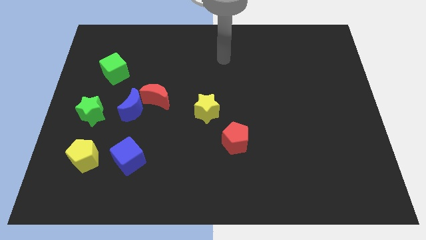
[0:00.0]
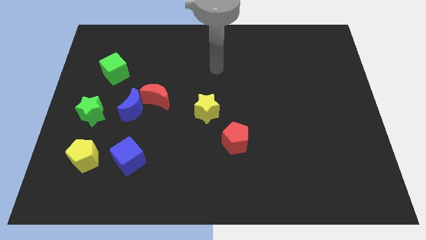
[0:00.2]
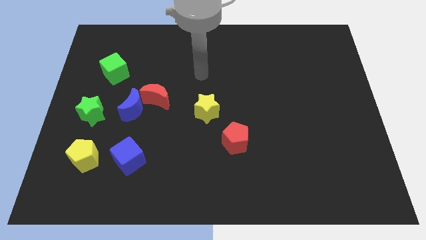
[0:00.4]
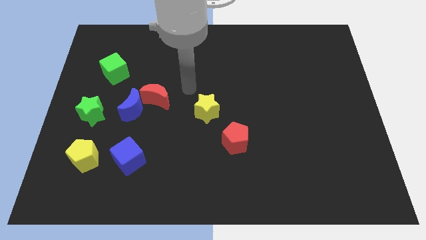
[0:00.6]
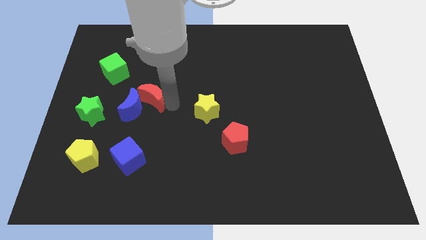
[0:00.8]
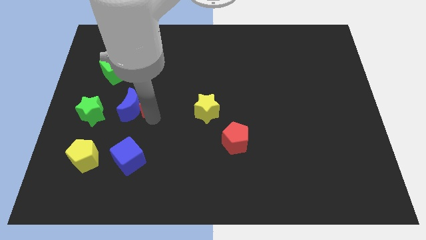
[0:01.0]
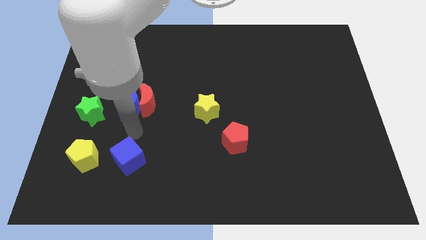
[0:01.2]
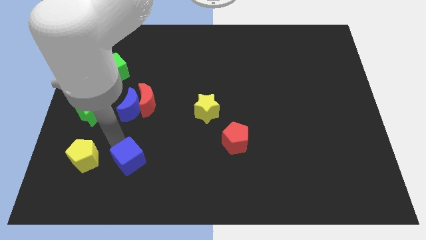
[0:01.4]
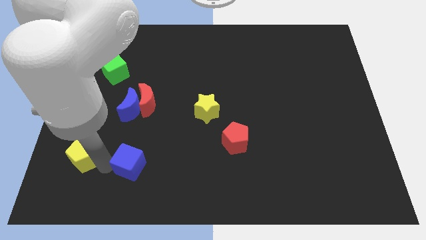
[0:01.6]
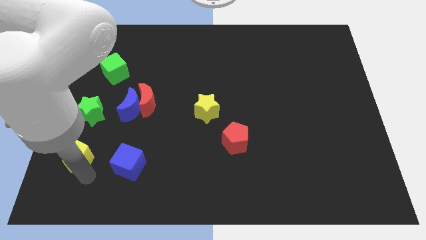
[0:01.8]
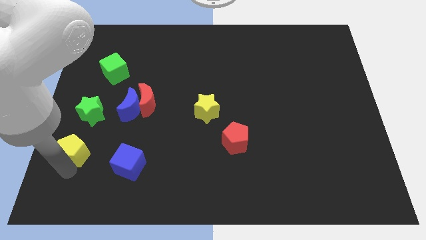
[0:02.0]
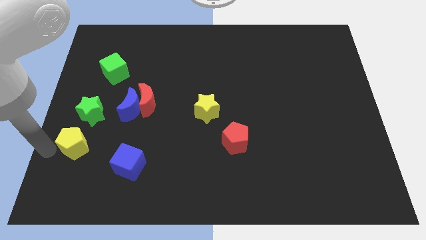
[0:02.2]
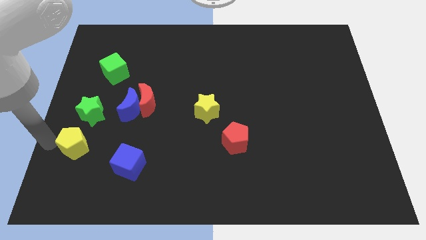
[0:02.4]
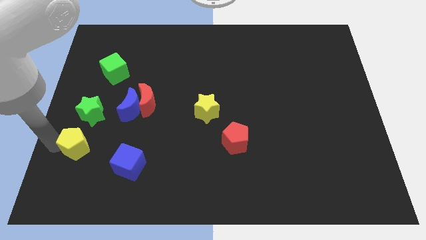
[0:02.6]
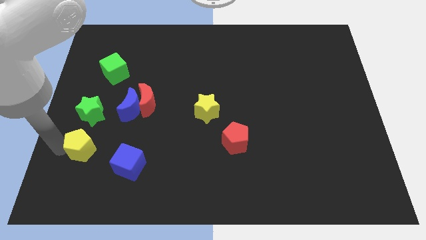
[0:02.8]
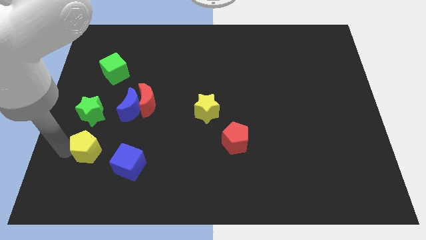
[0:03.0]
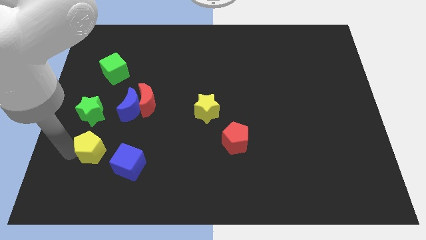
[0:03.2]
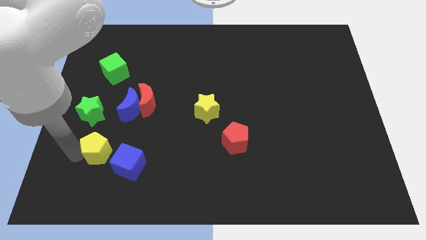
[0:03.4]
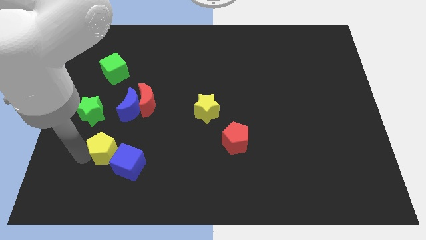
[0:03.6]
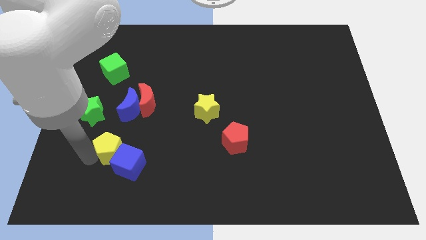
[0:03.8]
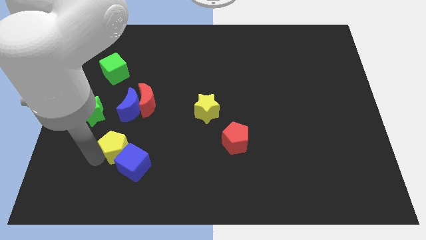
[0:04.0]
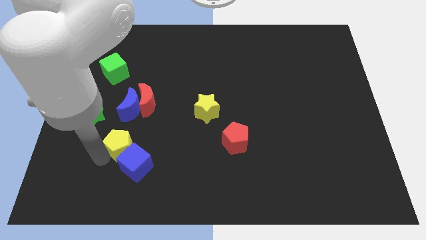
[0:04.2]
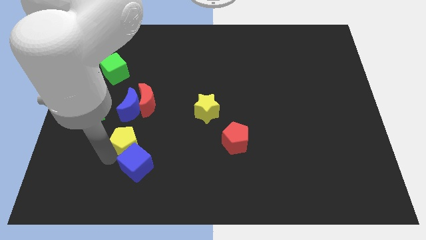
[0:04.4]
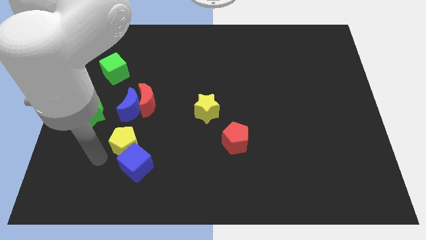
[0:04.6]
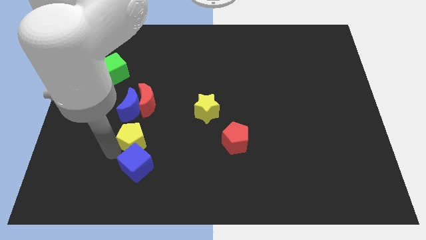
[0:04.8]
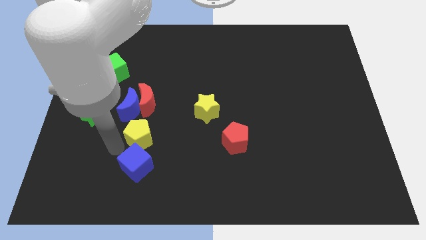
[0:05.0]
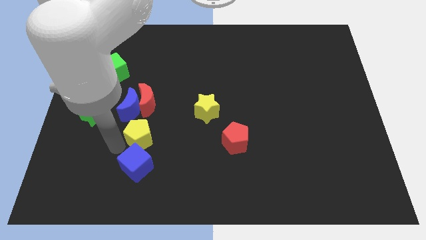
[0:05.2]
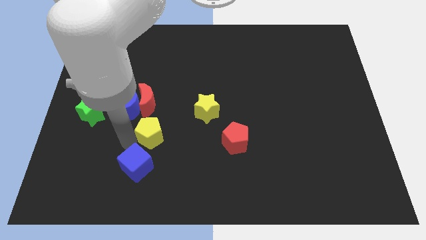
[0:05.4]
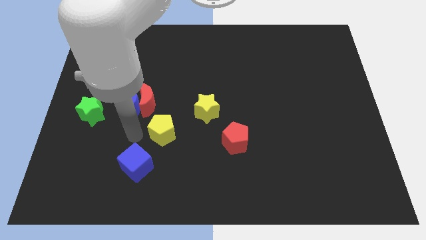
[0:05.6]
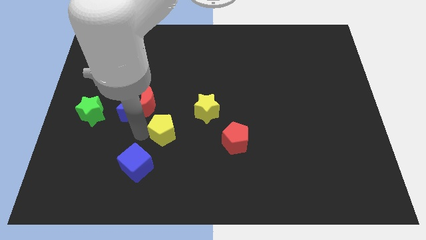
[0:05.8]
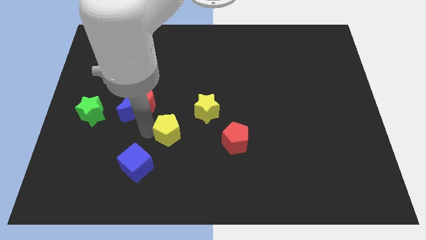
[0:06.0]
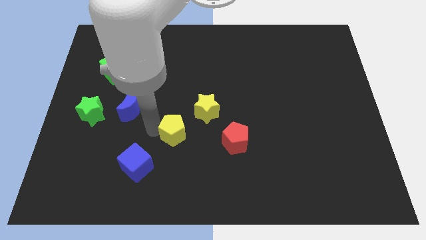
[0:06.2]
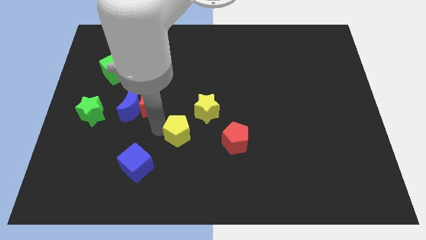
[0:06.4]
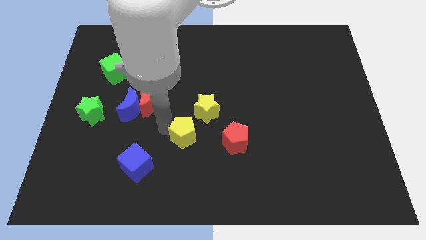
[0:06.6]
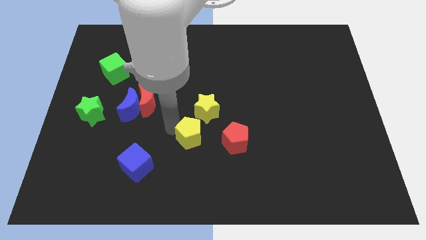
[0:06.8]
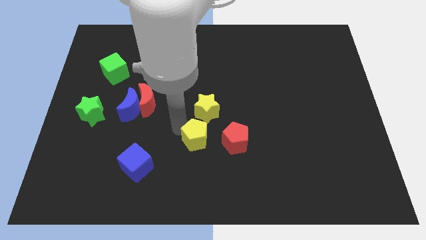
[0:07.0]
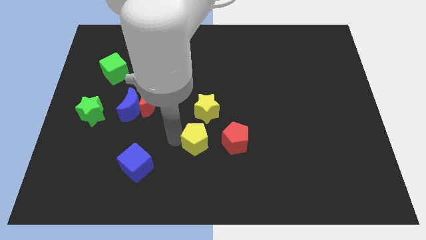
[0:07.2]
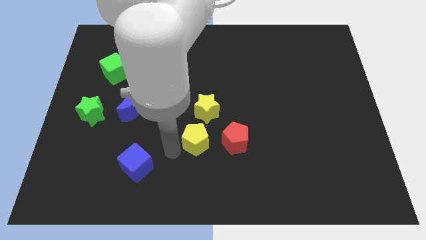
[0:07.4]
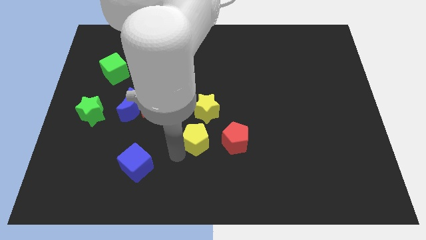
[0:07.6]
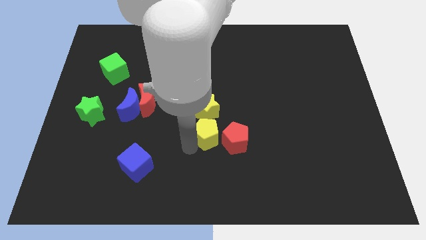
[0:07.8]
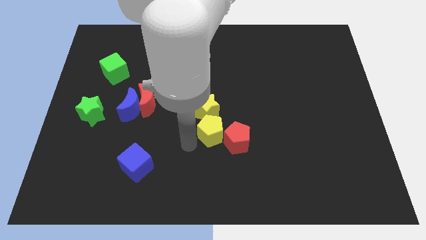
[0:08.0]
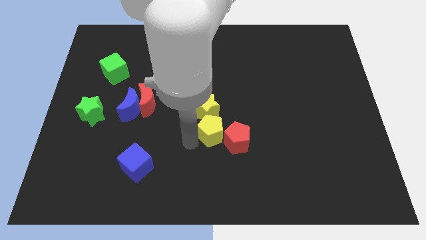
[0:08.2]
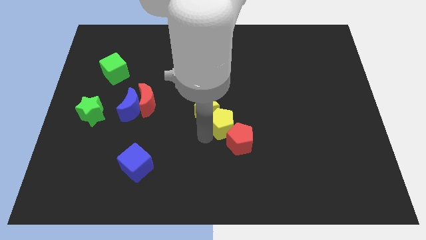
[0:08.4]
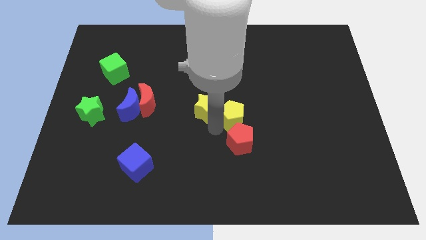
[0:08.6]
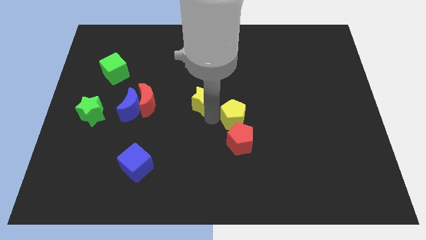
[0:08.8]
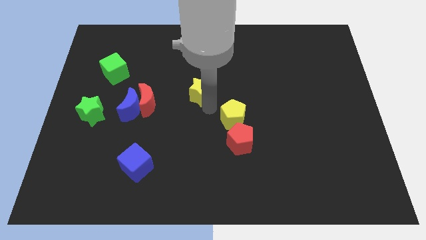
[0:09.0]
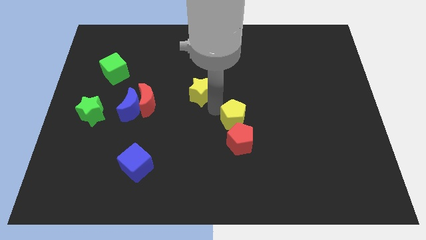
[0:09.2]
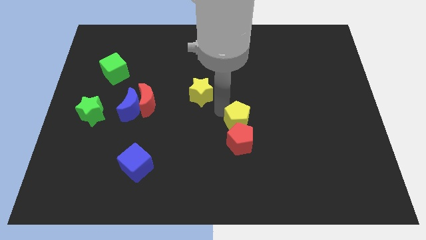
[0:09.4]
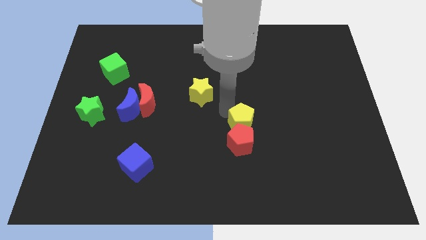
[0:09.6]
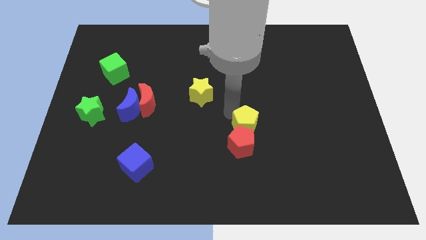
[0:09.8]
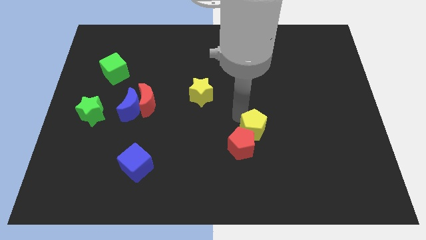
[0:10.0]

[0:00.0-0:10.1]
slide the yellow pentagon right of the red pentagon

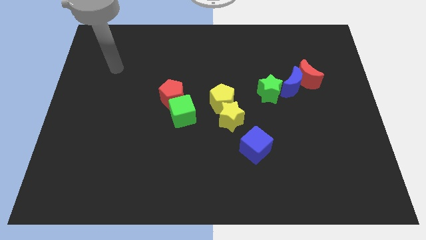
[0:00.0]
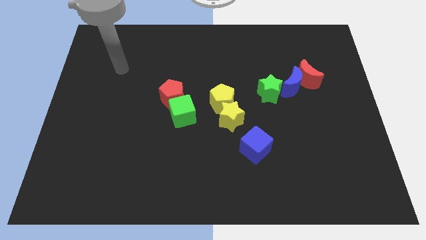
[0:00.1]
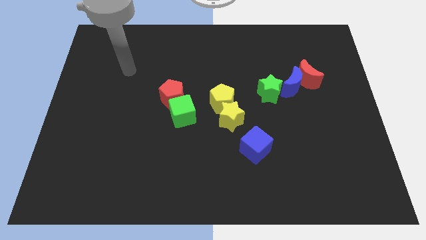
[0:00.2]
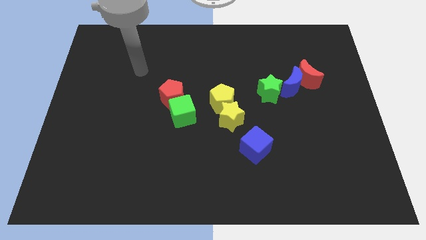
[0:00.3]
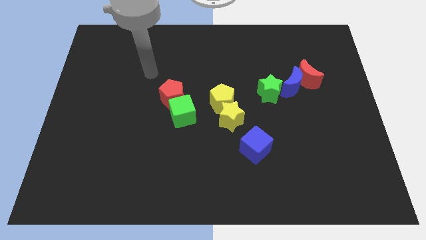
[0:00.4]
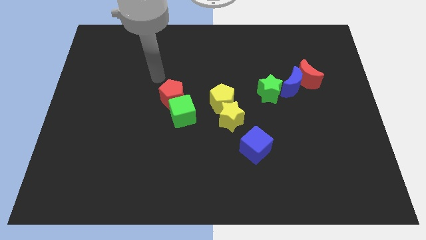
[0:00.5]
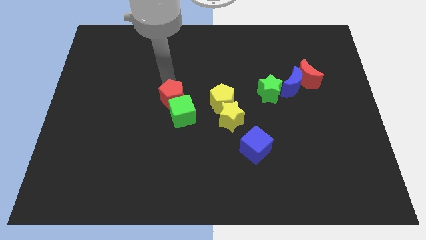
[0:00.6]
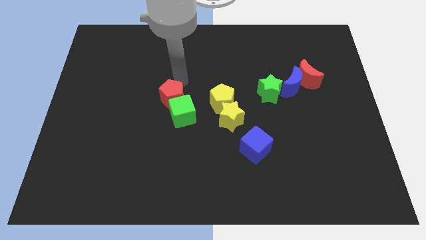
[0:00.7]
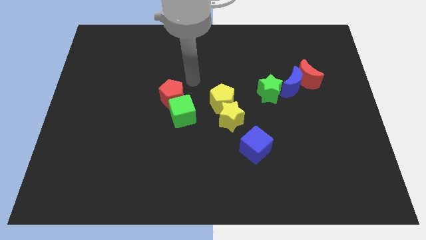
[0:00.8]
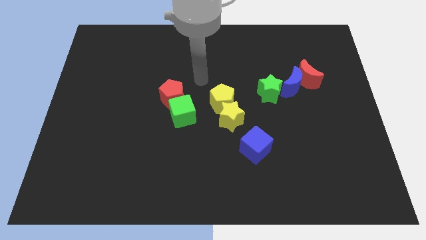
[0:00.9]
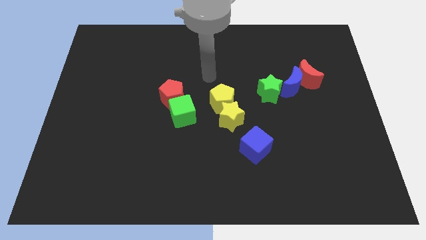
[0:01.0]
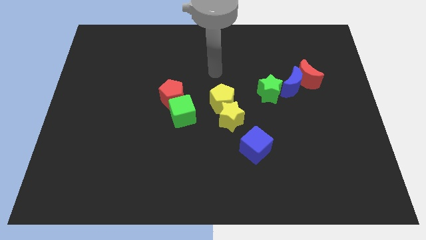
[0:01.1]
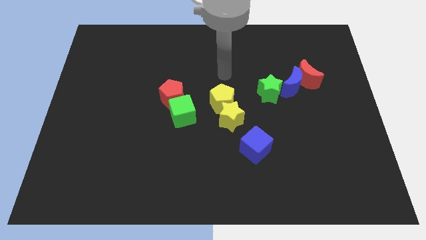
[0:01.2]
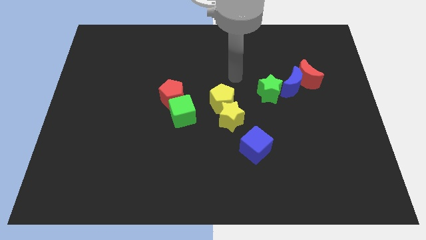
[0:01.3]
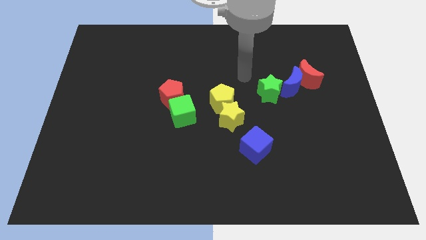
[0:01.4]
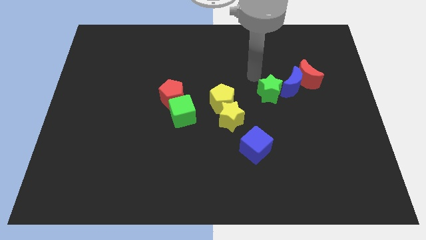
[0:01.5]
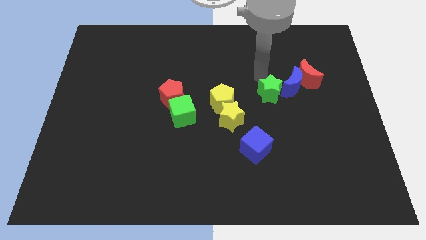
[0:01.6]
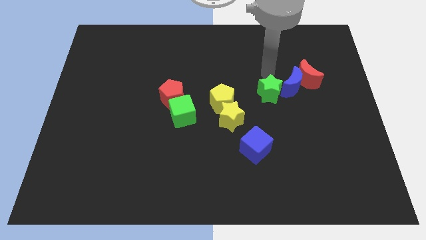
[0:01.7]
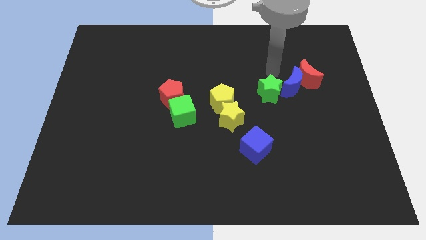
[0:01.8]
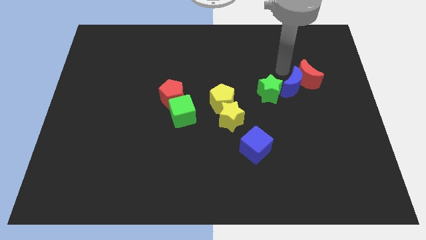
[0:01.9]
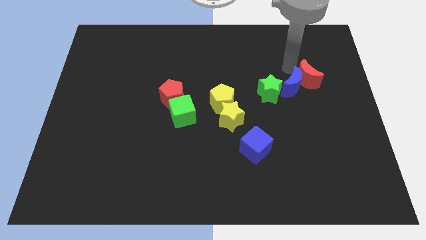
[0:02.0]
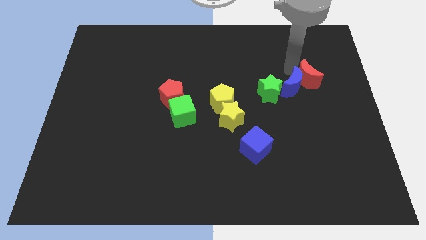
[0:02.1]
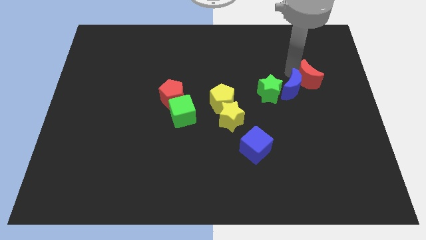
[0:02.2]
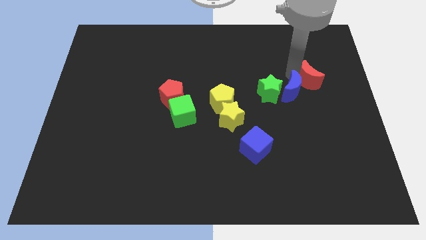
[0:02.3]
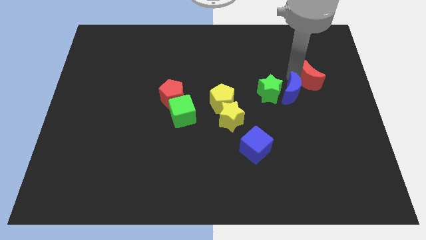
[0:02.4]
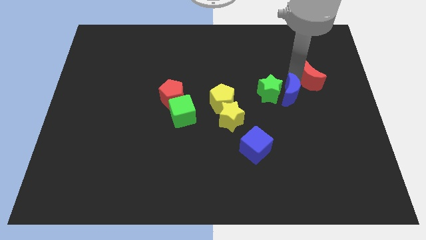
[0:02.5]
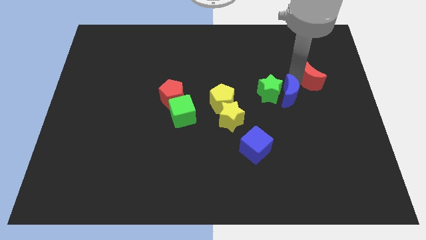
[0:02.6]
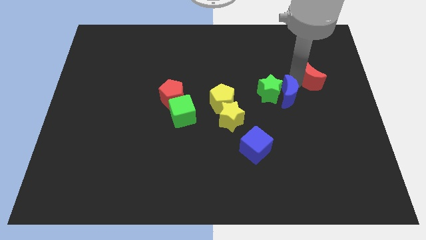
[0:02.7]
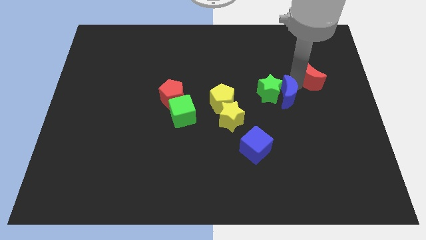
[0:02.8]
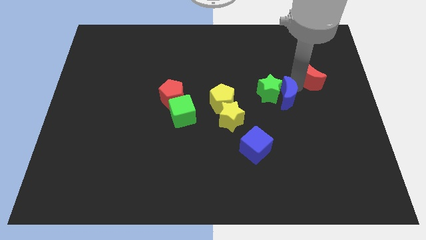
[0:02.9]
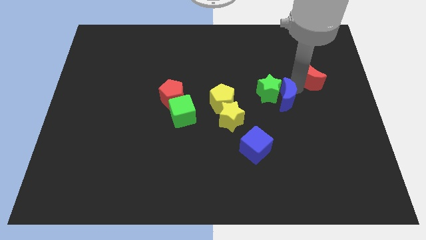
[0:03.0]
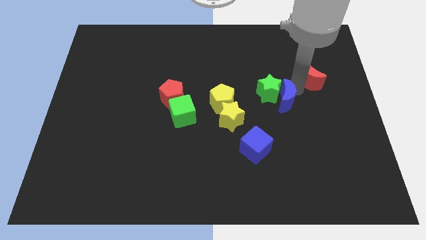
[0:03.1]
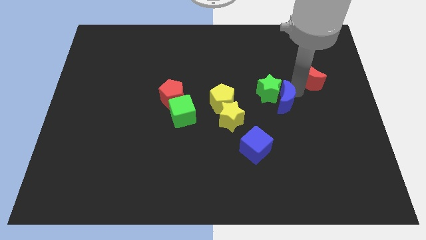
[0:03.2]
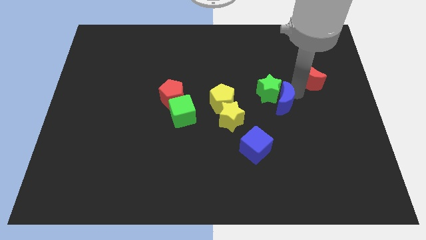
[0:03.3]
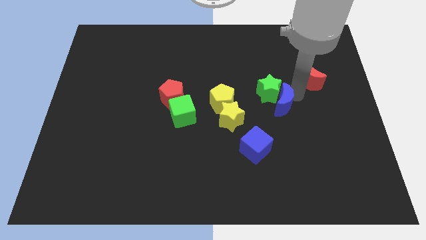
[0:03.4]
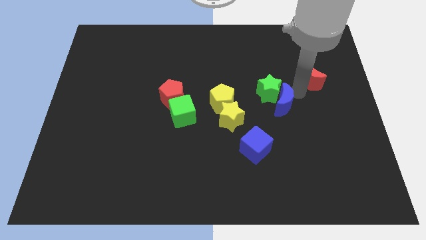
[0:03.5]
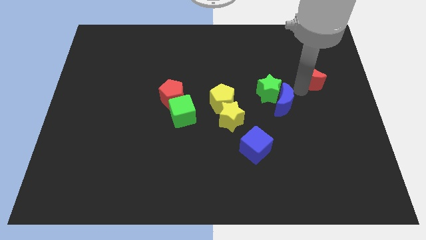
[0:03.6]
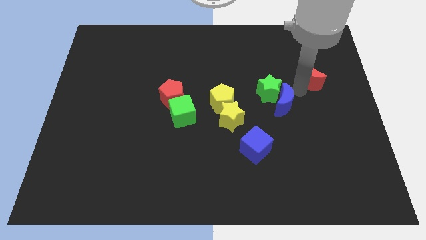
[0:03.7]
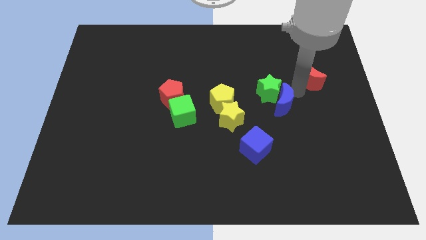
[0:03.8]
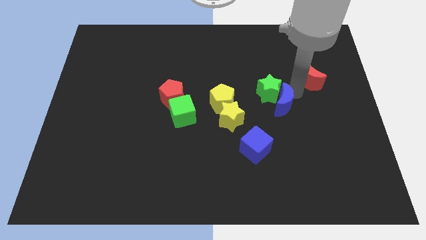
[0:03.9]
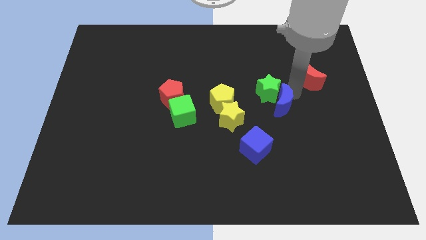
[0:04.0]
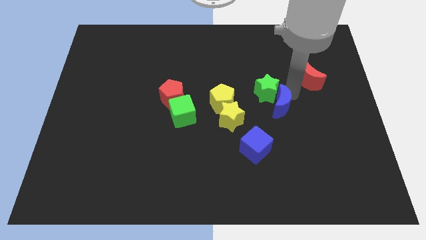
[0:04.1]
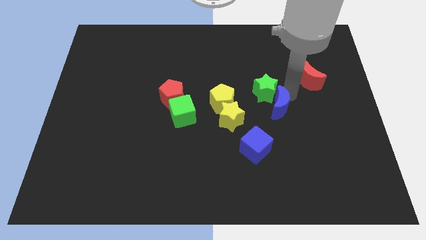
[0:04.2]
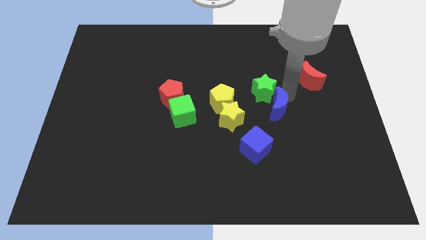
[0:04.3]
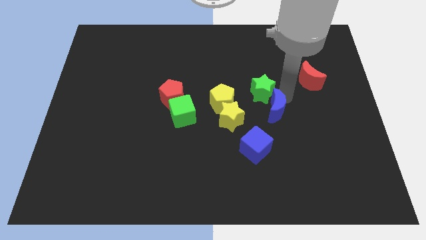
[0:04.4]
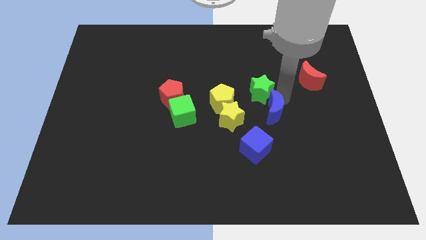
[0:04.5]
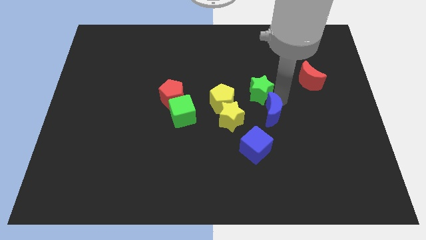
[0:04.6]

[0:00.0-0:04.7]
push the blue moon to the top side of the blue cube
